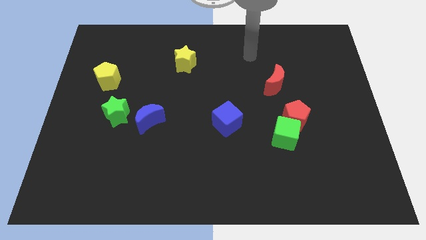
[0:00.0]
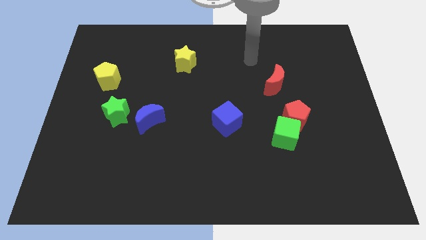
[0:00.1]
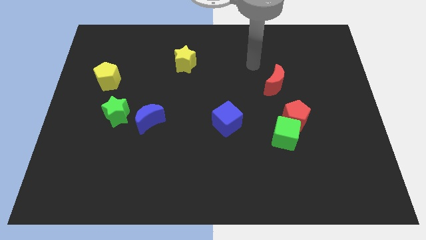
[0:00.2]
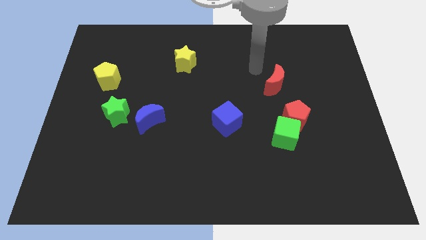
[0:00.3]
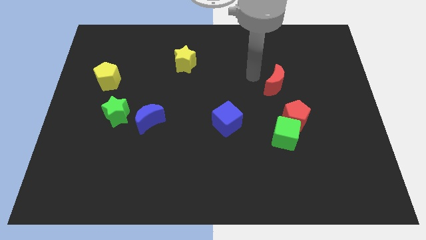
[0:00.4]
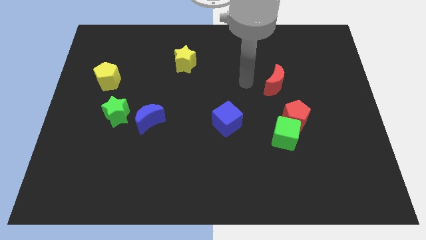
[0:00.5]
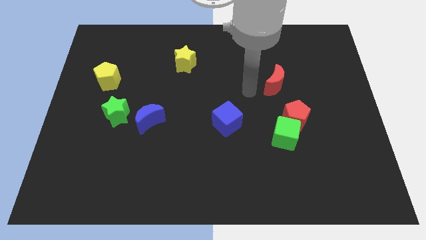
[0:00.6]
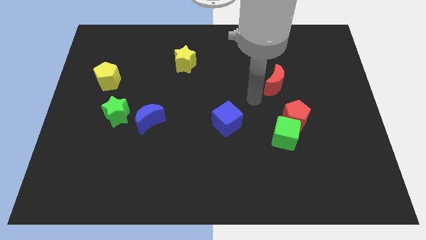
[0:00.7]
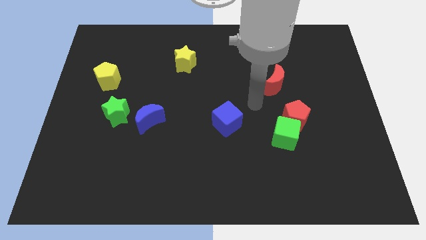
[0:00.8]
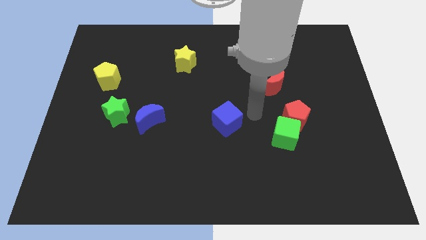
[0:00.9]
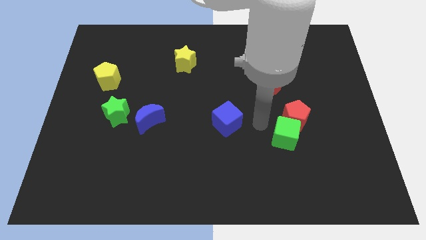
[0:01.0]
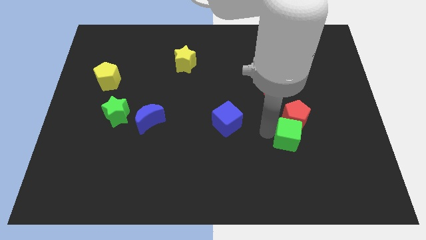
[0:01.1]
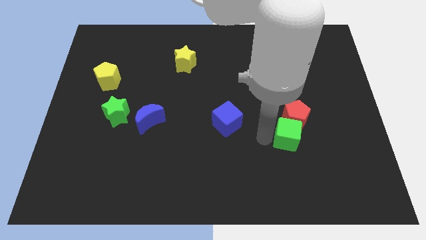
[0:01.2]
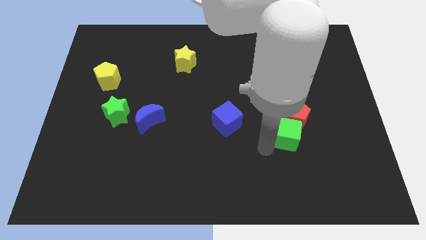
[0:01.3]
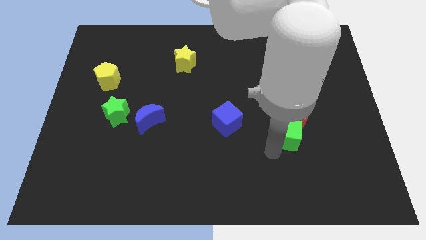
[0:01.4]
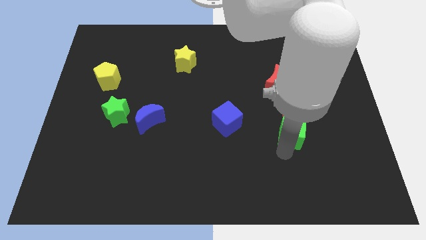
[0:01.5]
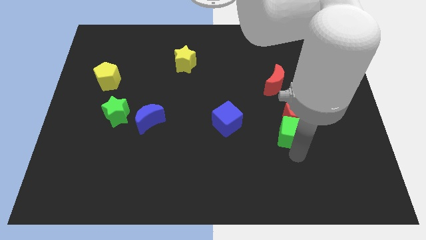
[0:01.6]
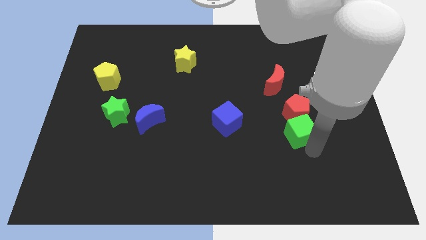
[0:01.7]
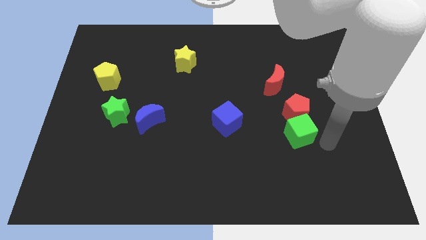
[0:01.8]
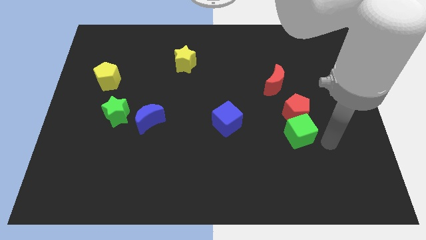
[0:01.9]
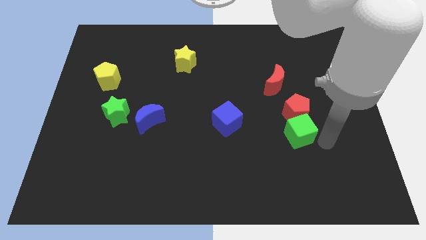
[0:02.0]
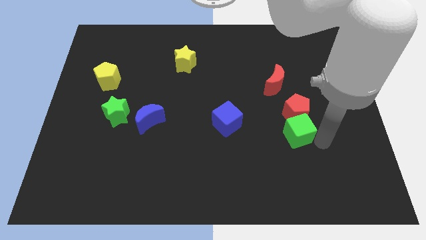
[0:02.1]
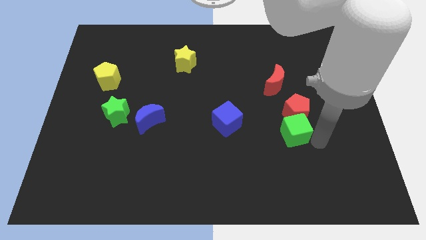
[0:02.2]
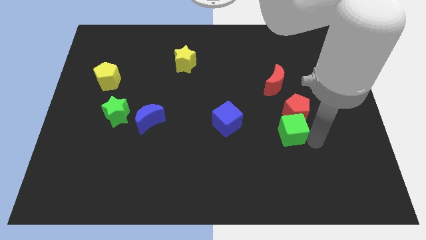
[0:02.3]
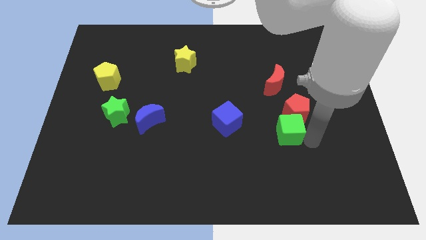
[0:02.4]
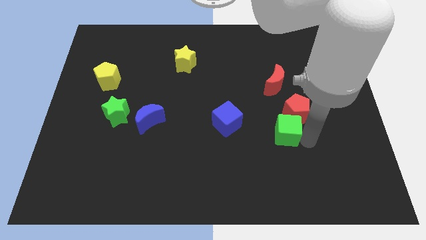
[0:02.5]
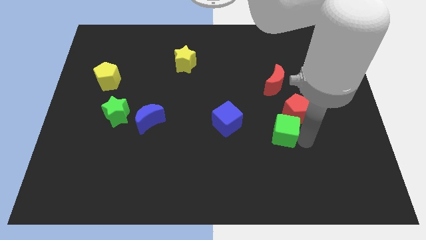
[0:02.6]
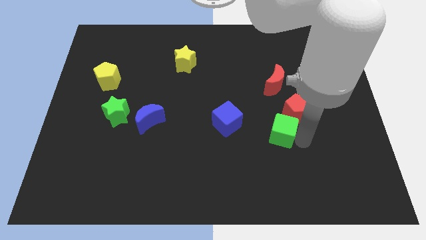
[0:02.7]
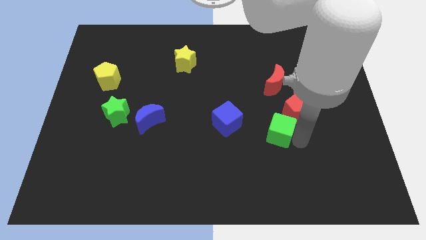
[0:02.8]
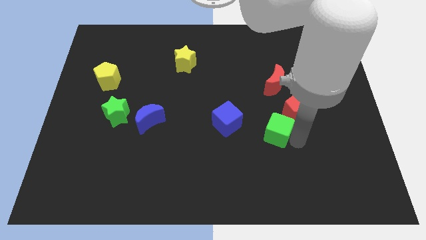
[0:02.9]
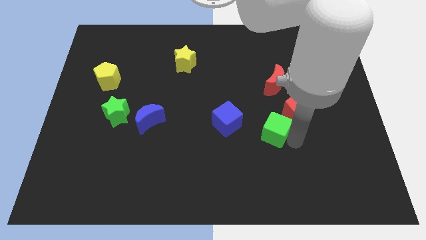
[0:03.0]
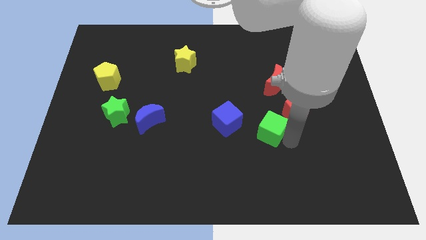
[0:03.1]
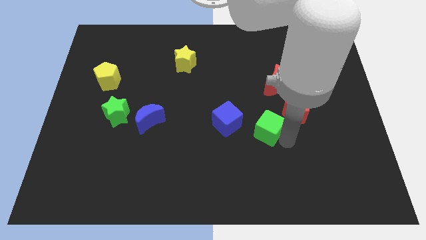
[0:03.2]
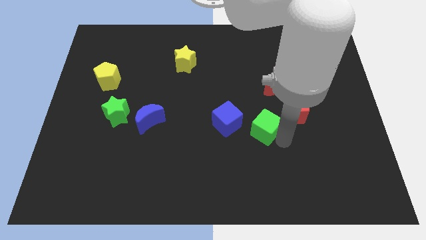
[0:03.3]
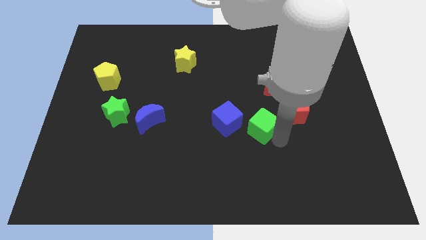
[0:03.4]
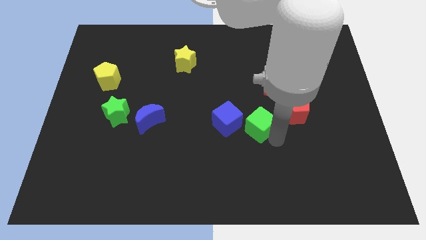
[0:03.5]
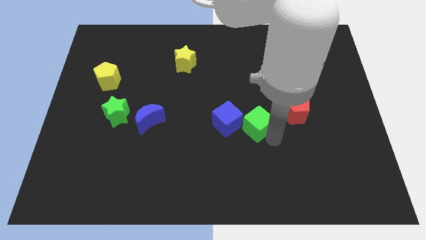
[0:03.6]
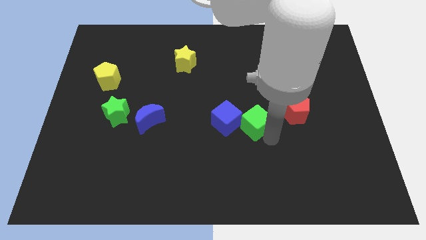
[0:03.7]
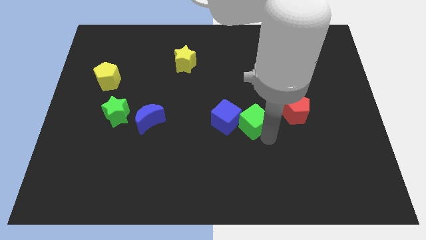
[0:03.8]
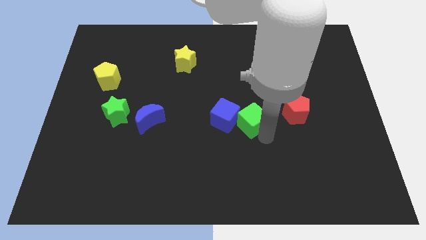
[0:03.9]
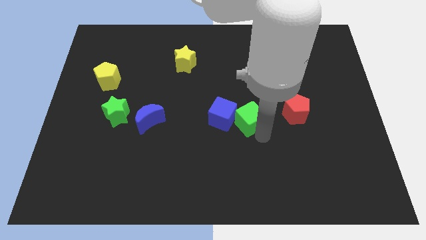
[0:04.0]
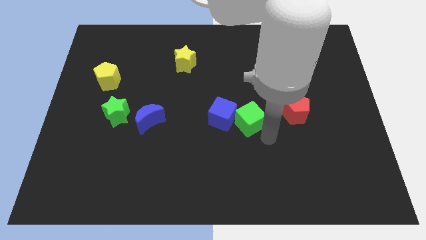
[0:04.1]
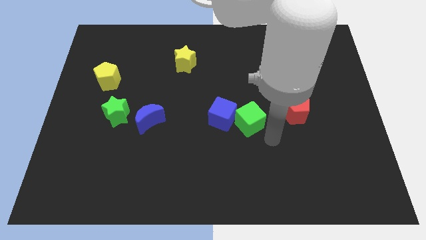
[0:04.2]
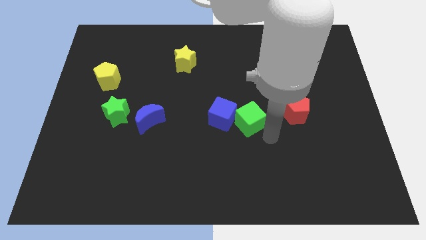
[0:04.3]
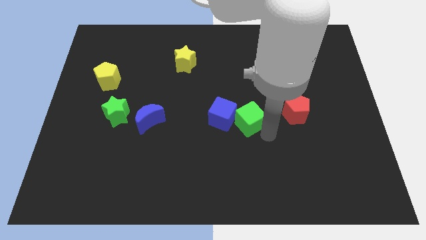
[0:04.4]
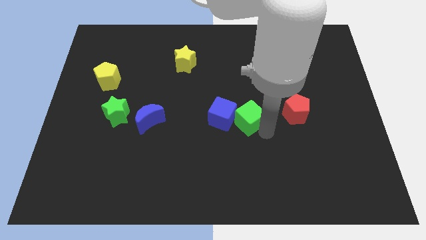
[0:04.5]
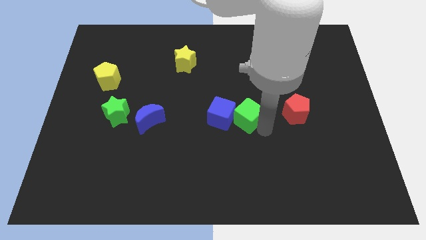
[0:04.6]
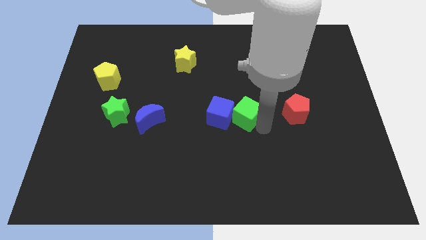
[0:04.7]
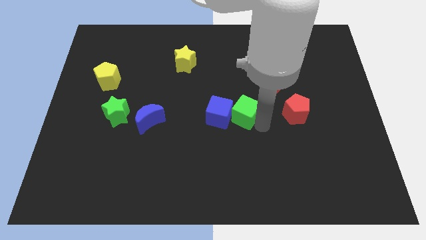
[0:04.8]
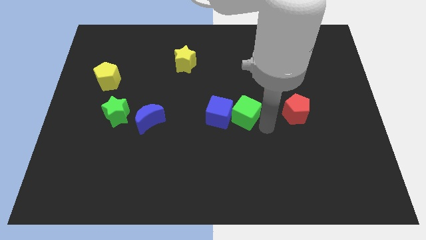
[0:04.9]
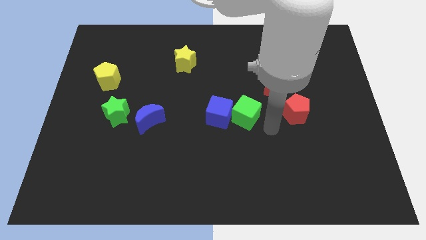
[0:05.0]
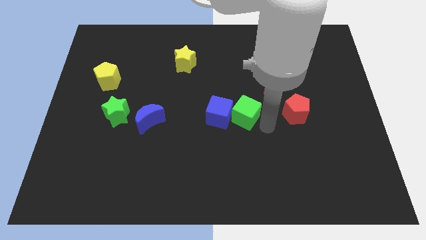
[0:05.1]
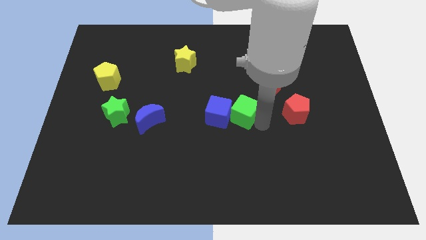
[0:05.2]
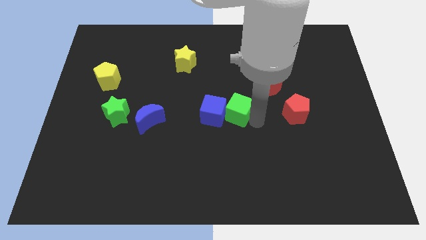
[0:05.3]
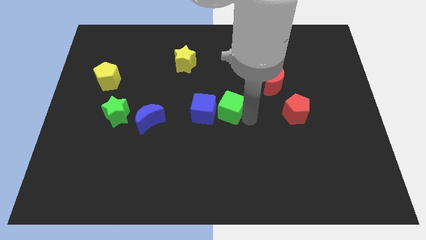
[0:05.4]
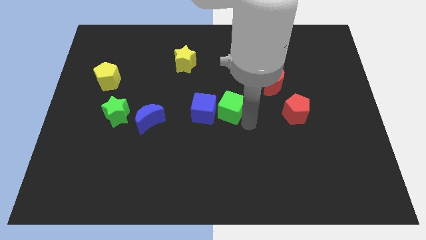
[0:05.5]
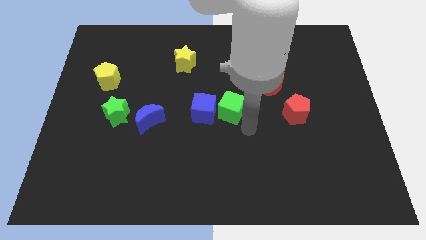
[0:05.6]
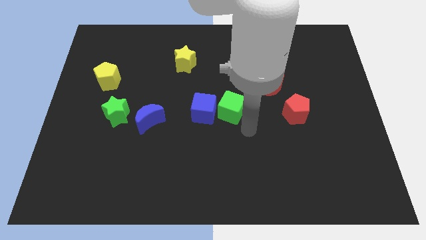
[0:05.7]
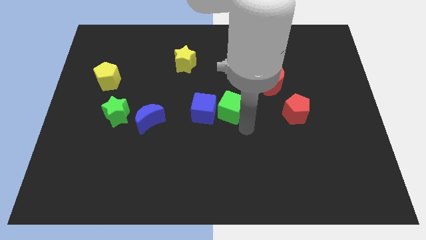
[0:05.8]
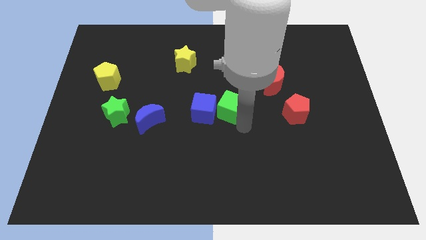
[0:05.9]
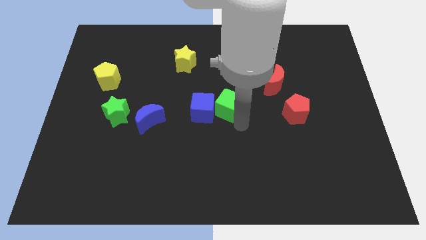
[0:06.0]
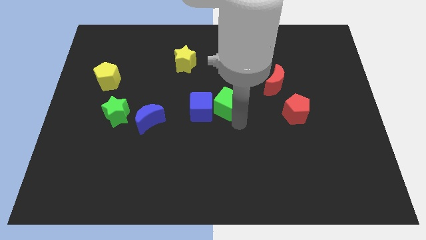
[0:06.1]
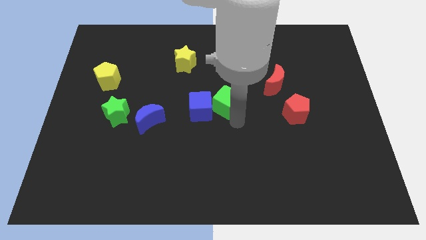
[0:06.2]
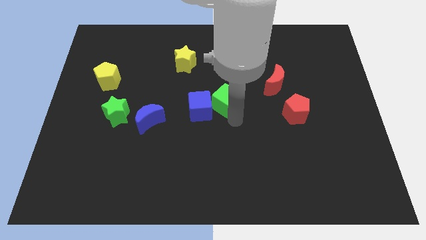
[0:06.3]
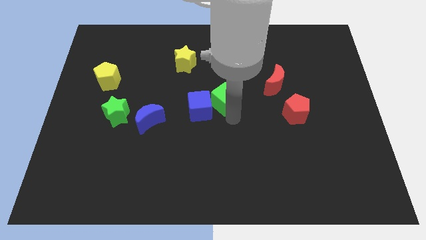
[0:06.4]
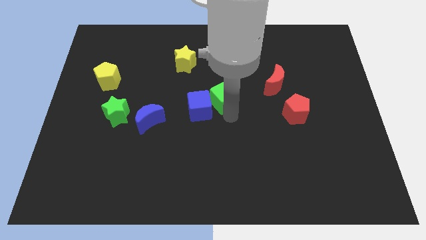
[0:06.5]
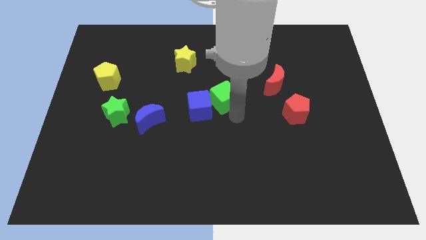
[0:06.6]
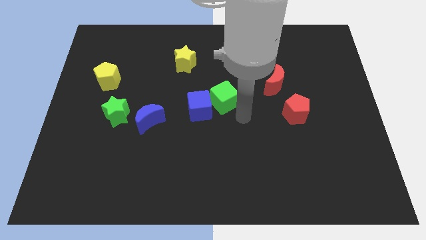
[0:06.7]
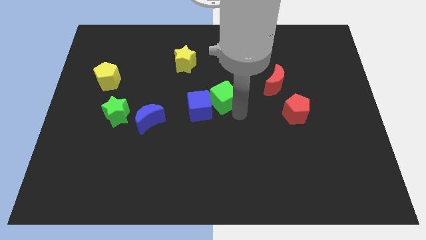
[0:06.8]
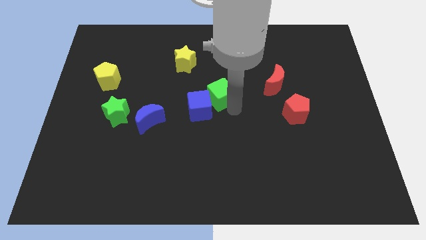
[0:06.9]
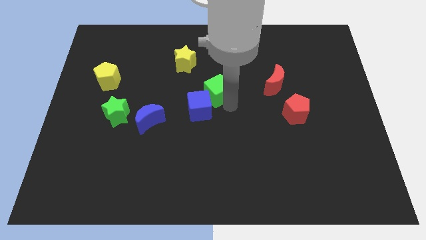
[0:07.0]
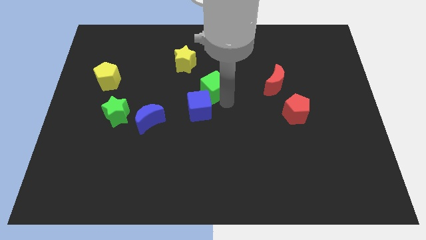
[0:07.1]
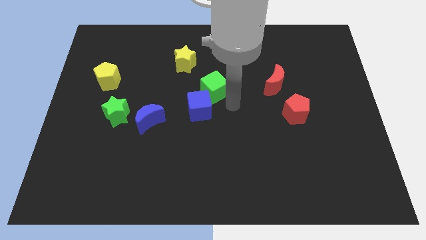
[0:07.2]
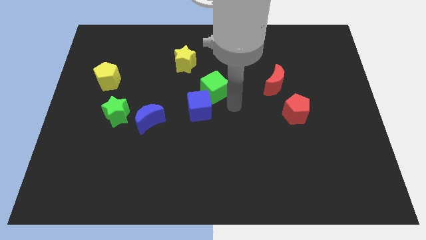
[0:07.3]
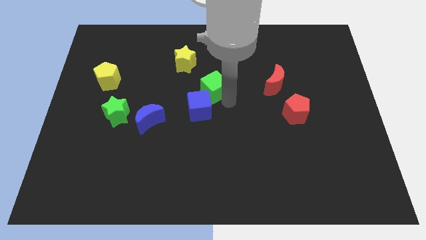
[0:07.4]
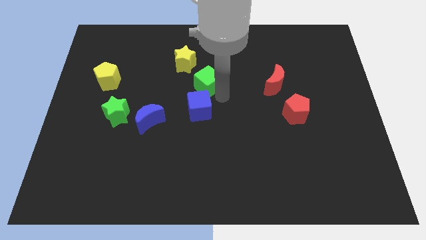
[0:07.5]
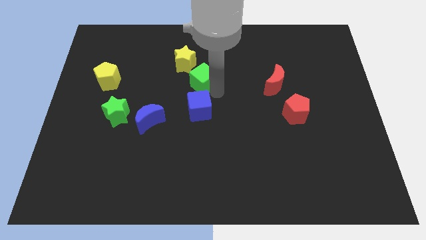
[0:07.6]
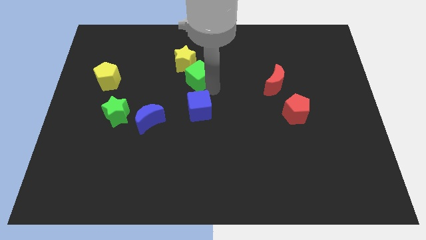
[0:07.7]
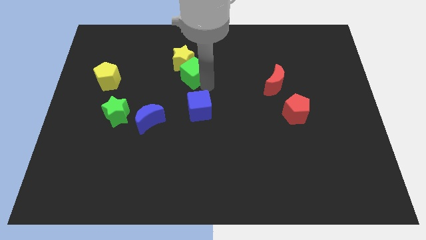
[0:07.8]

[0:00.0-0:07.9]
put the green cube next to the yellow star
